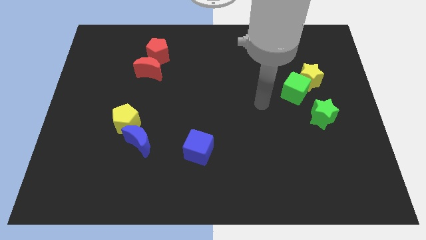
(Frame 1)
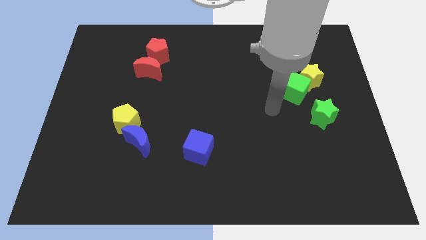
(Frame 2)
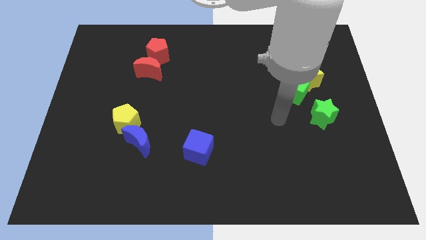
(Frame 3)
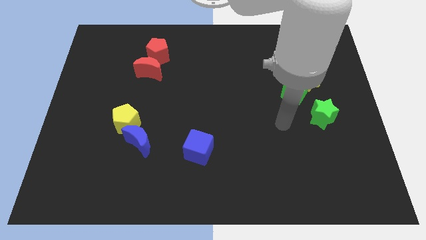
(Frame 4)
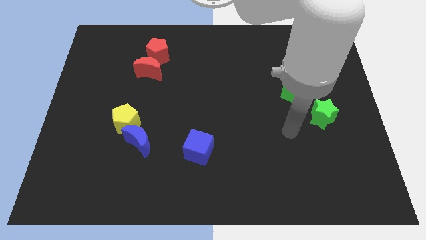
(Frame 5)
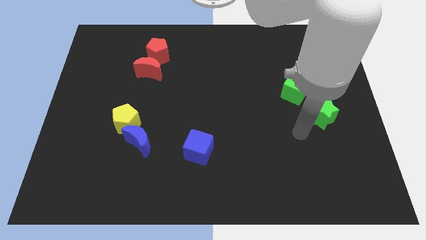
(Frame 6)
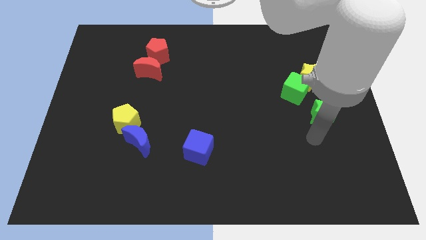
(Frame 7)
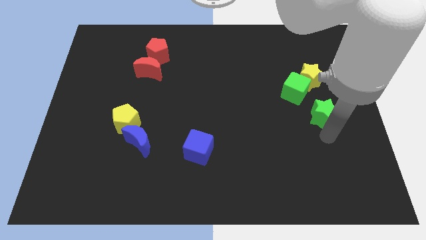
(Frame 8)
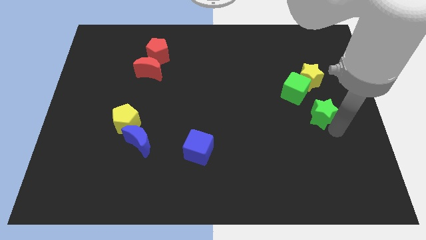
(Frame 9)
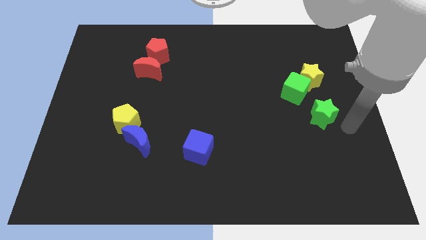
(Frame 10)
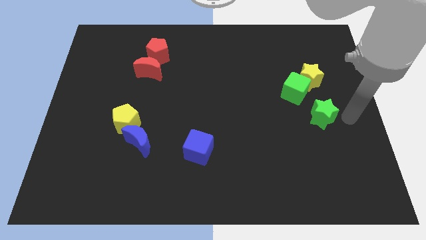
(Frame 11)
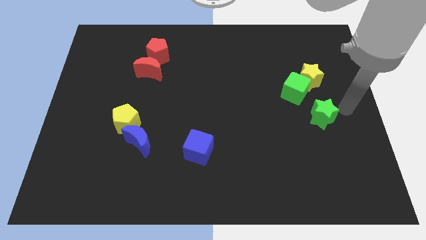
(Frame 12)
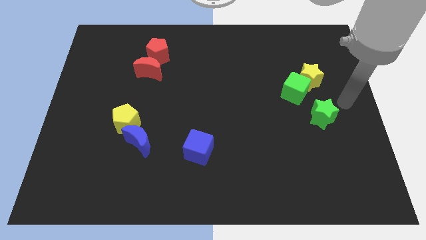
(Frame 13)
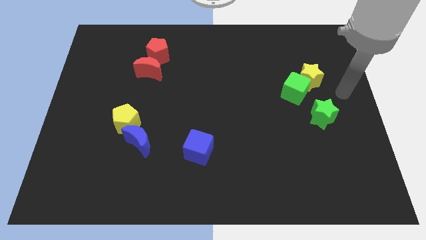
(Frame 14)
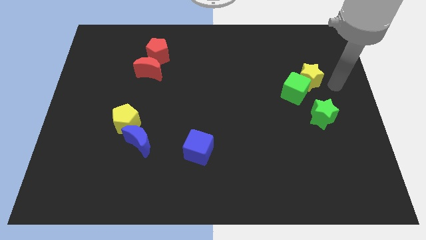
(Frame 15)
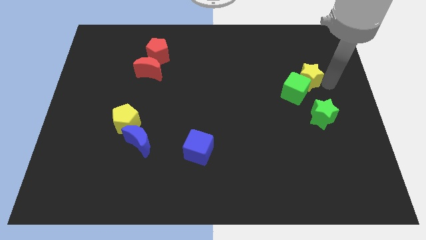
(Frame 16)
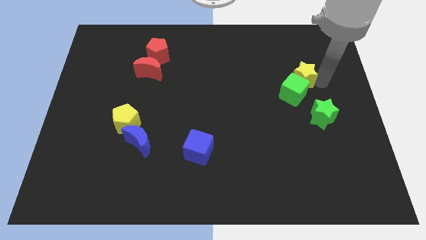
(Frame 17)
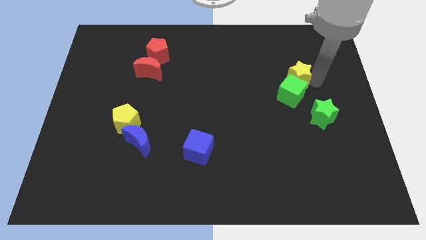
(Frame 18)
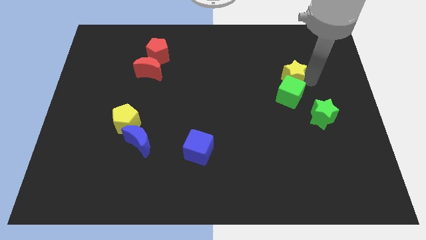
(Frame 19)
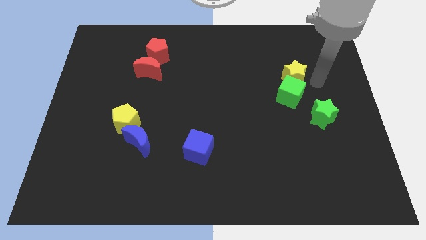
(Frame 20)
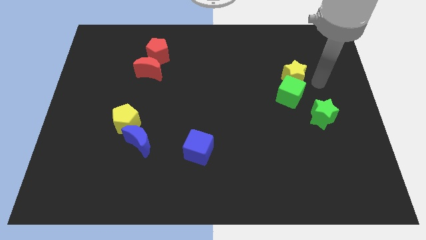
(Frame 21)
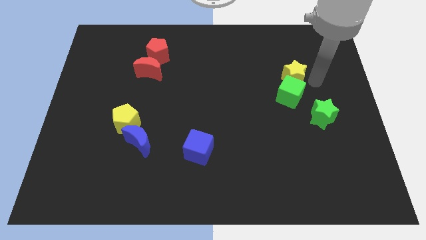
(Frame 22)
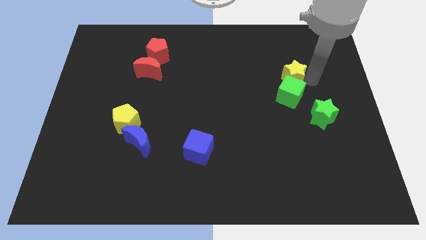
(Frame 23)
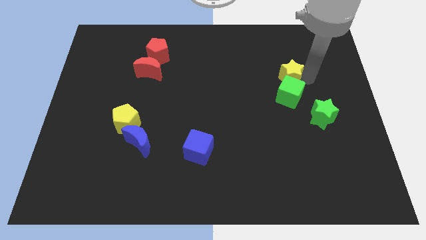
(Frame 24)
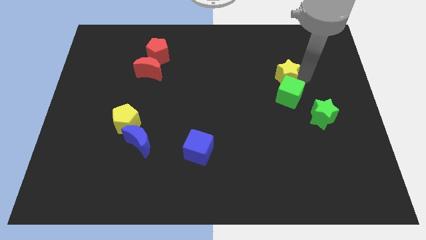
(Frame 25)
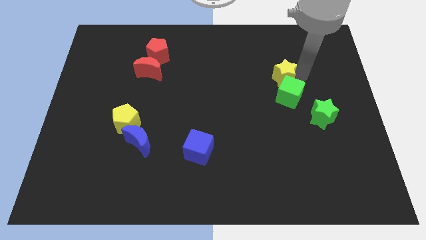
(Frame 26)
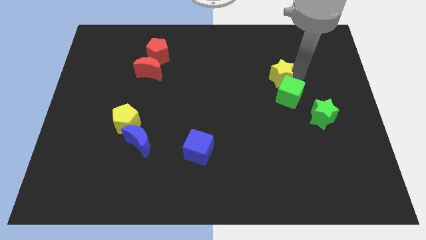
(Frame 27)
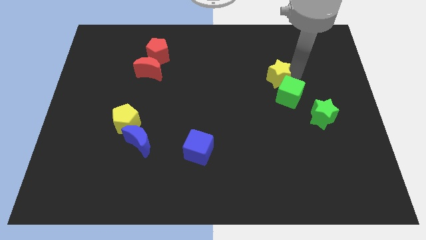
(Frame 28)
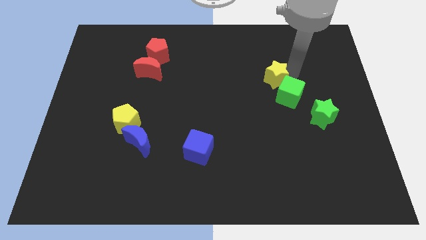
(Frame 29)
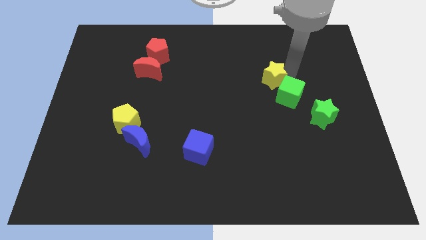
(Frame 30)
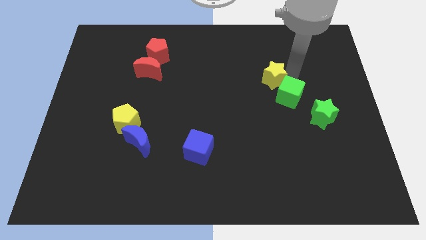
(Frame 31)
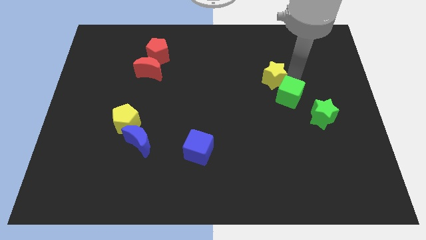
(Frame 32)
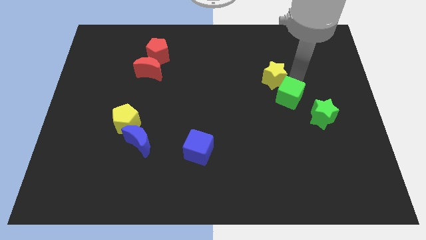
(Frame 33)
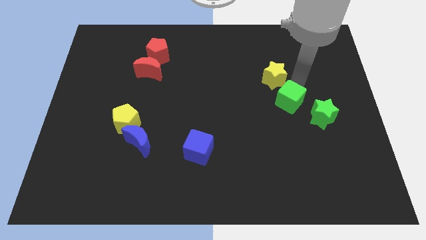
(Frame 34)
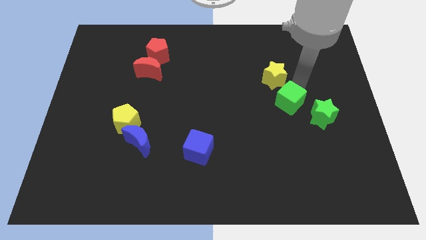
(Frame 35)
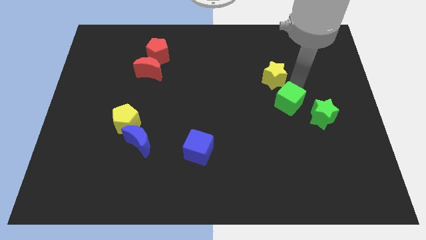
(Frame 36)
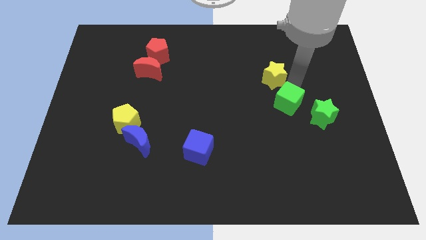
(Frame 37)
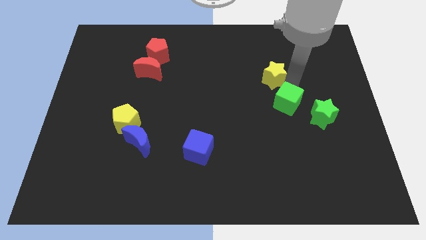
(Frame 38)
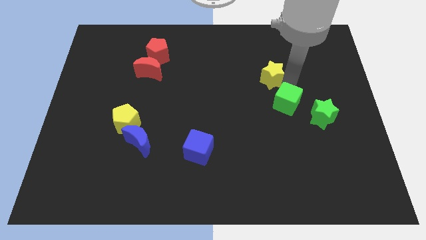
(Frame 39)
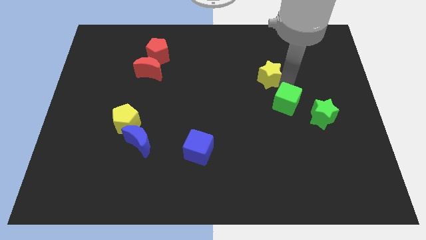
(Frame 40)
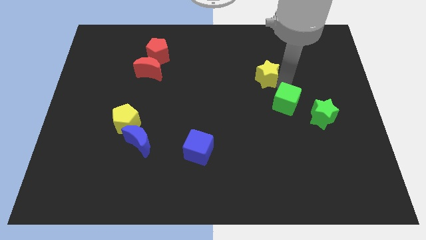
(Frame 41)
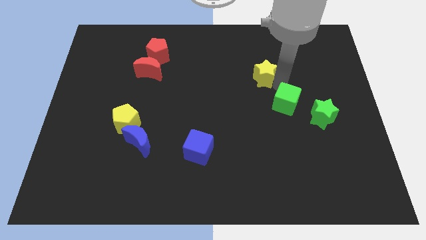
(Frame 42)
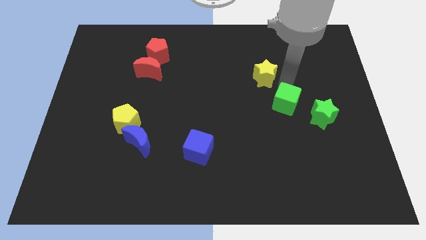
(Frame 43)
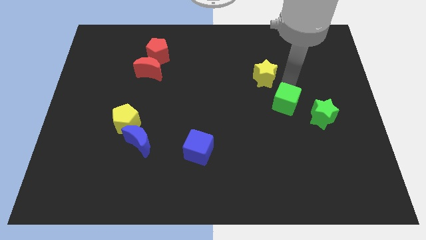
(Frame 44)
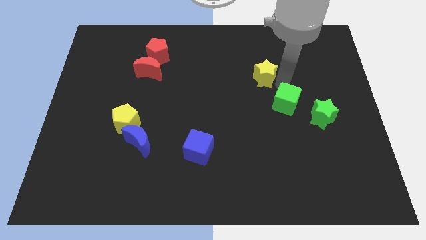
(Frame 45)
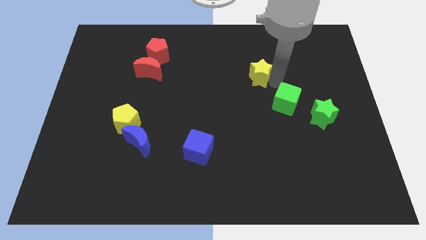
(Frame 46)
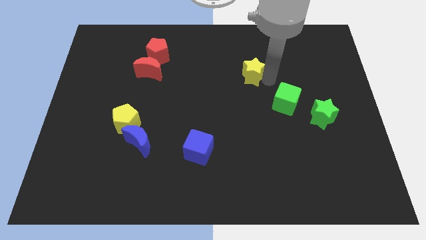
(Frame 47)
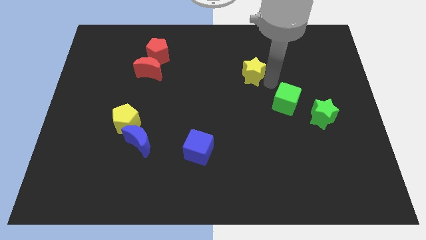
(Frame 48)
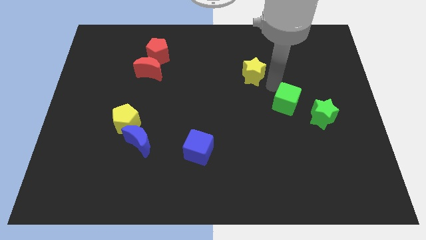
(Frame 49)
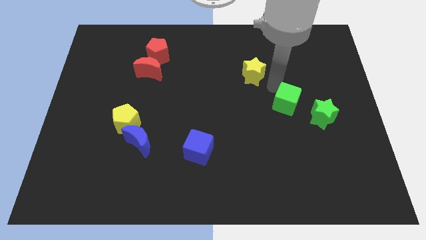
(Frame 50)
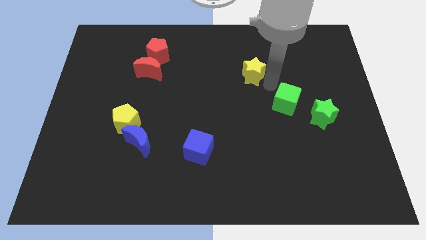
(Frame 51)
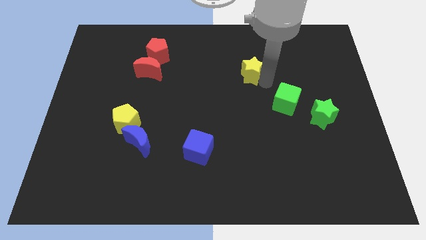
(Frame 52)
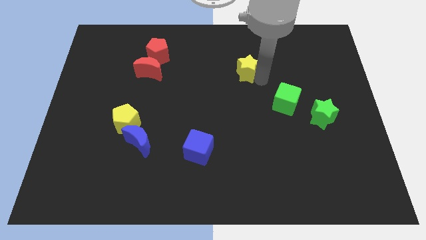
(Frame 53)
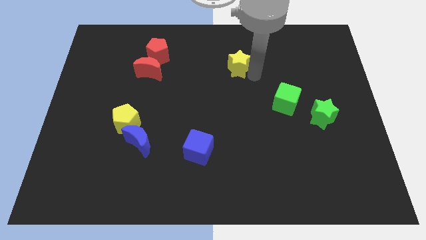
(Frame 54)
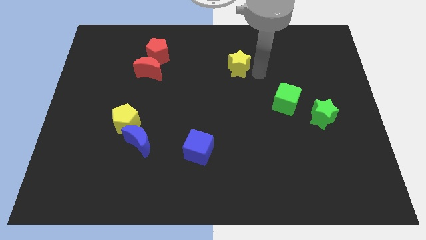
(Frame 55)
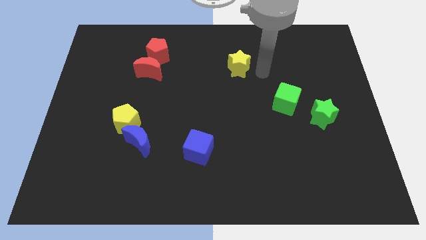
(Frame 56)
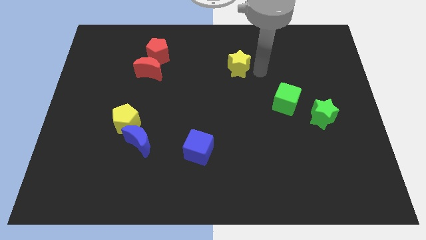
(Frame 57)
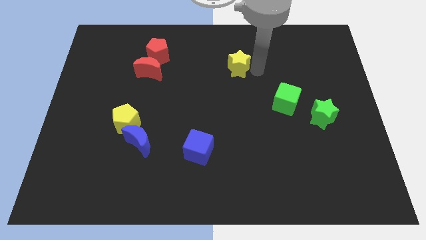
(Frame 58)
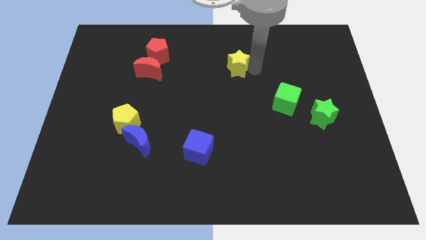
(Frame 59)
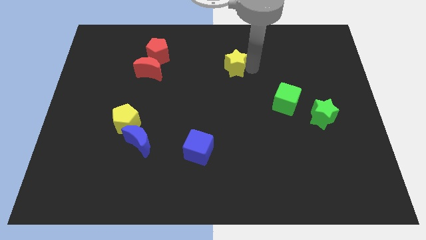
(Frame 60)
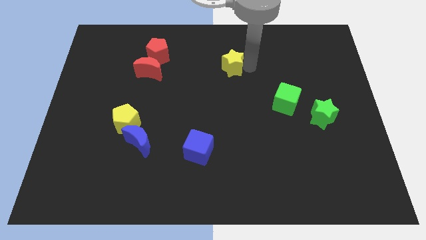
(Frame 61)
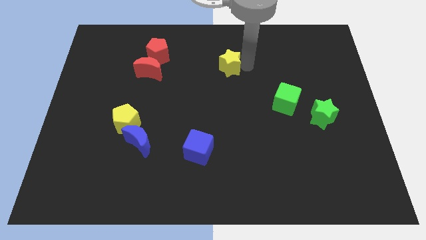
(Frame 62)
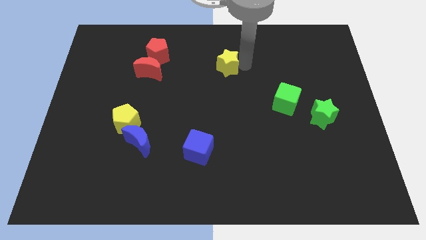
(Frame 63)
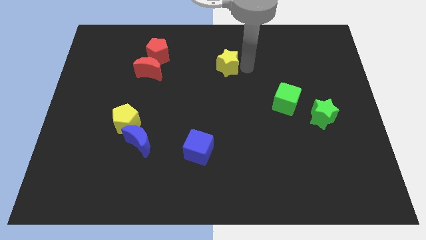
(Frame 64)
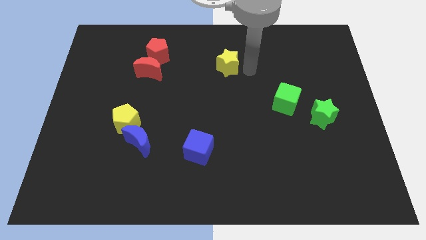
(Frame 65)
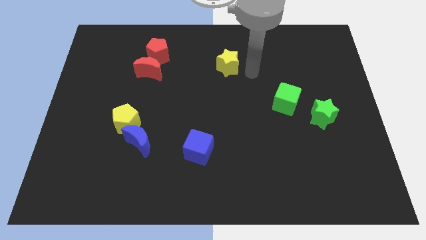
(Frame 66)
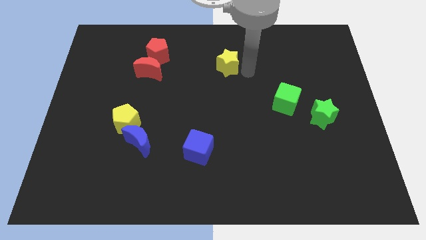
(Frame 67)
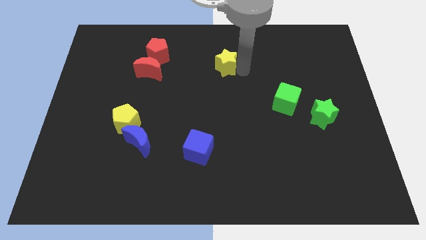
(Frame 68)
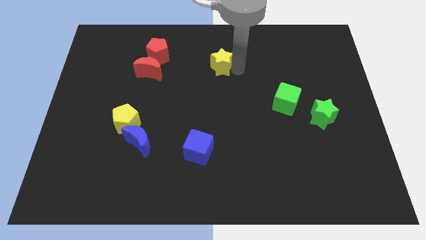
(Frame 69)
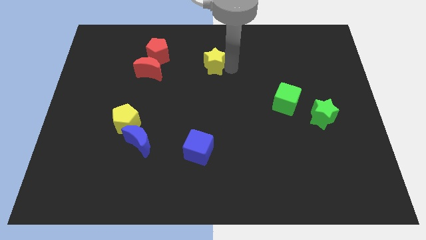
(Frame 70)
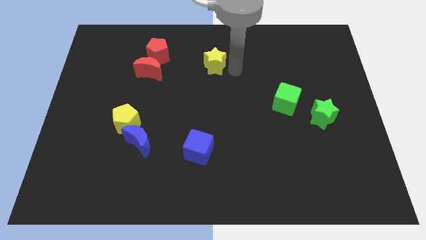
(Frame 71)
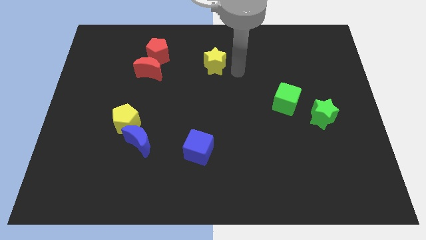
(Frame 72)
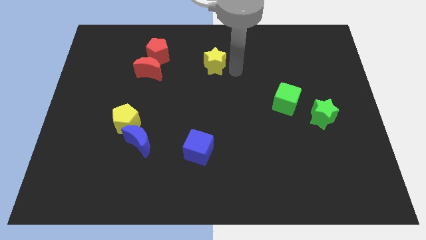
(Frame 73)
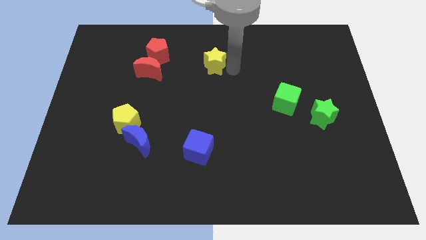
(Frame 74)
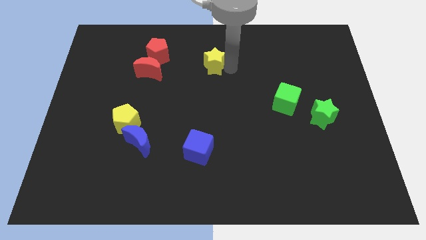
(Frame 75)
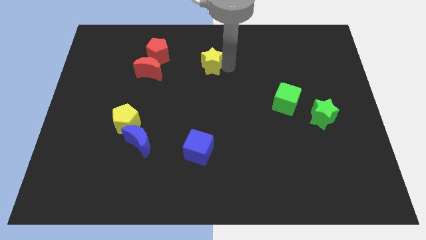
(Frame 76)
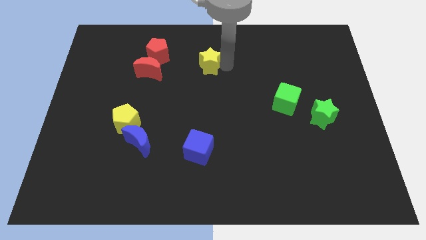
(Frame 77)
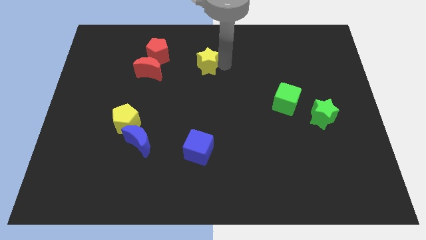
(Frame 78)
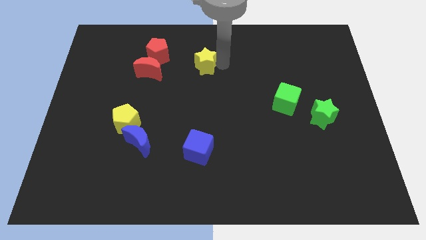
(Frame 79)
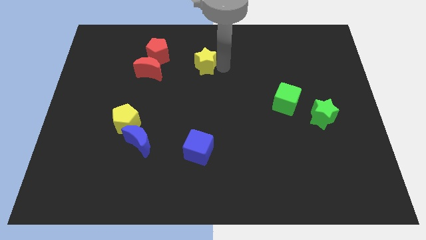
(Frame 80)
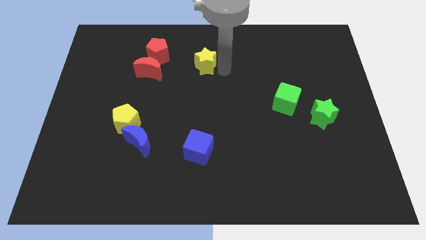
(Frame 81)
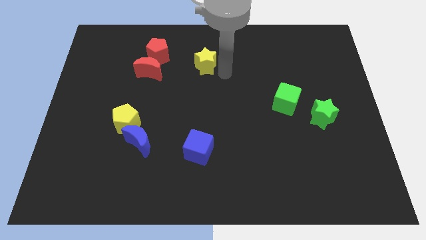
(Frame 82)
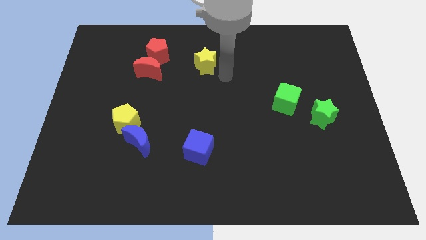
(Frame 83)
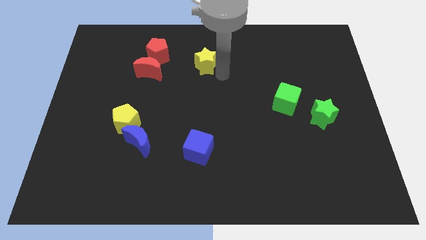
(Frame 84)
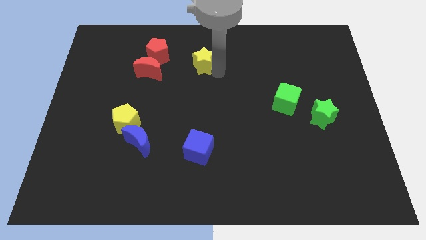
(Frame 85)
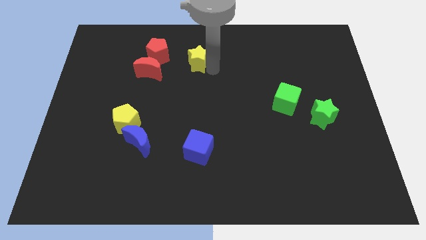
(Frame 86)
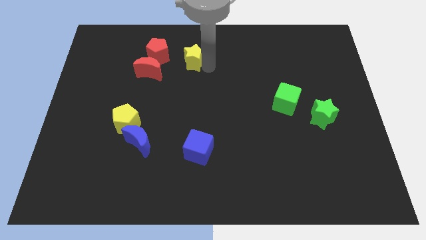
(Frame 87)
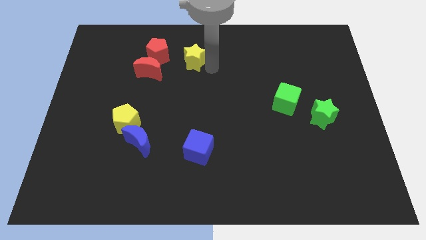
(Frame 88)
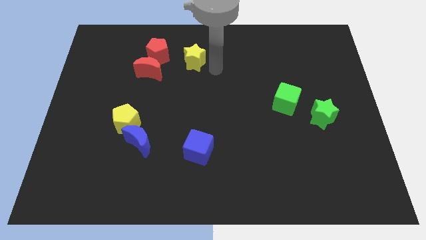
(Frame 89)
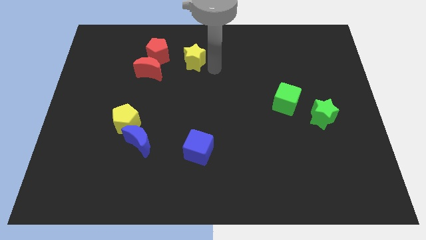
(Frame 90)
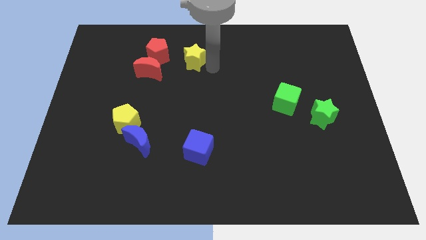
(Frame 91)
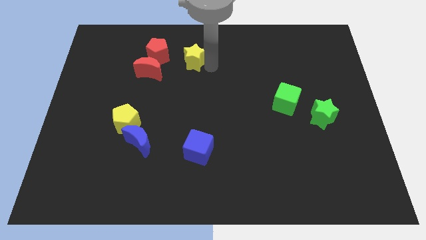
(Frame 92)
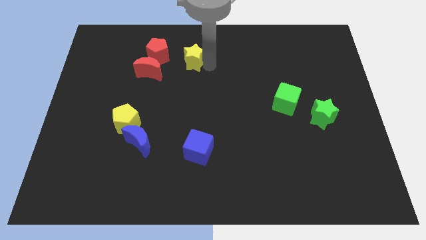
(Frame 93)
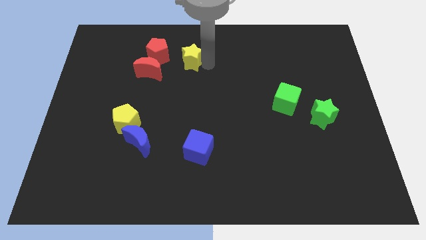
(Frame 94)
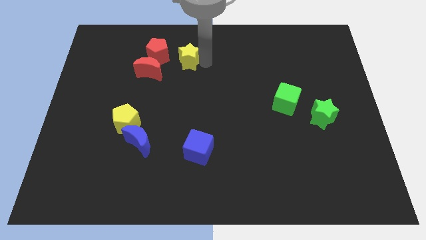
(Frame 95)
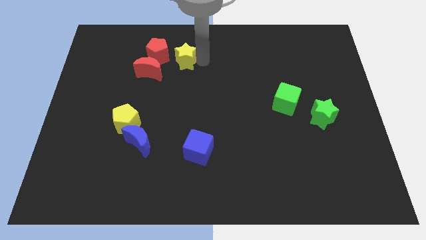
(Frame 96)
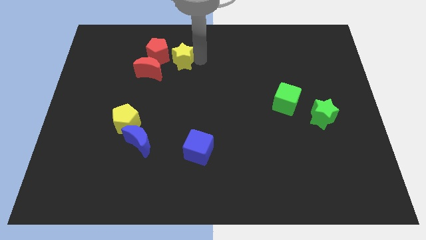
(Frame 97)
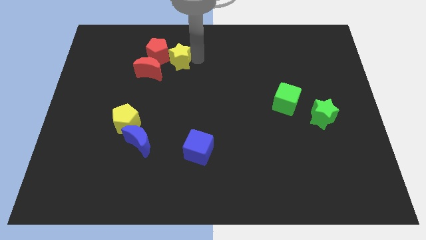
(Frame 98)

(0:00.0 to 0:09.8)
put the yellow star to the red pentagon
